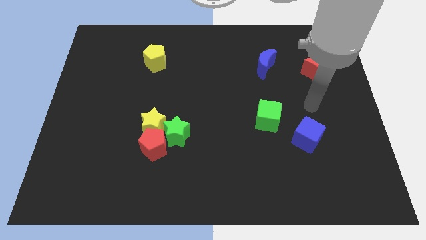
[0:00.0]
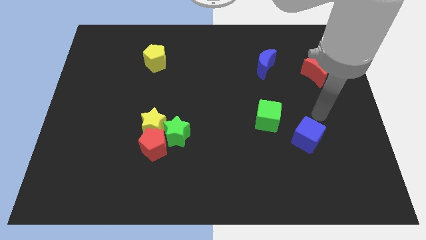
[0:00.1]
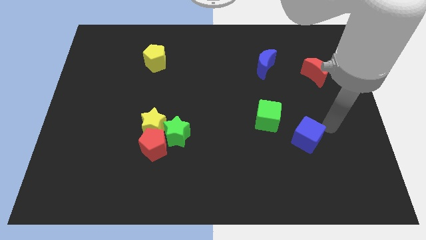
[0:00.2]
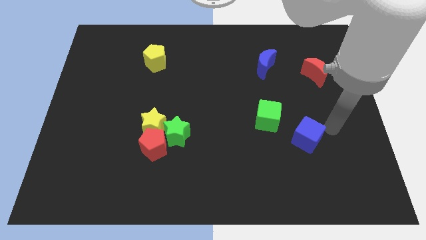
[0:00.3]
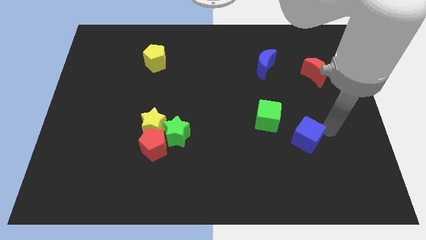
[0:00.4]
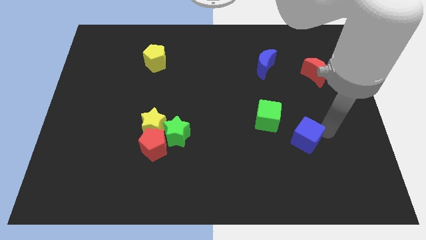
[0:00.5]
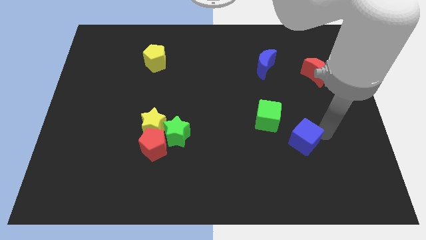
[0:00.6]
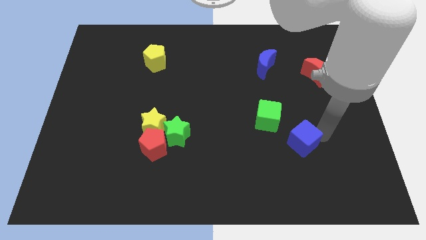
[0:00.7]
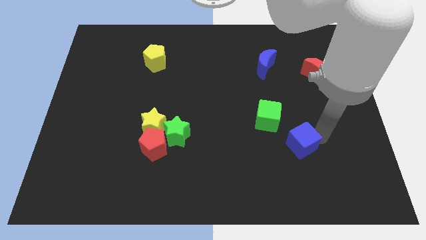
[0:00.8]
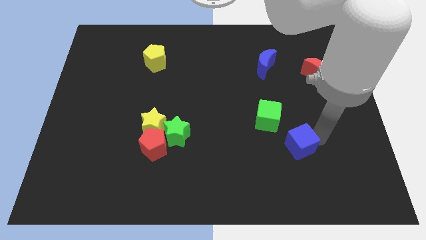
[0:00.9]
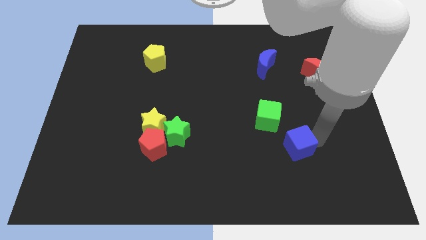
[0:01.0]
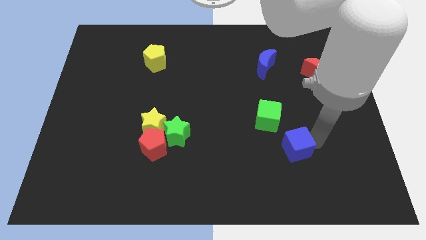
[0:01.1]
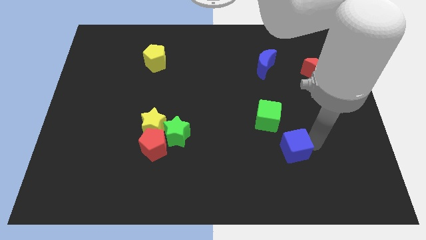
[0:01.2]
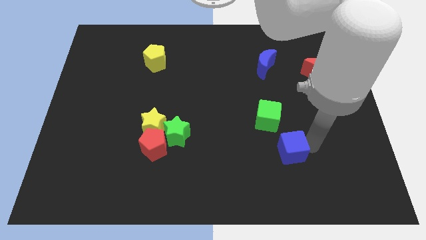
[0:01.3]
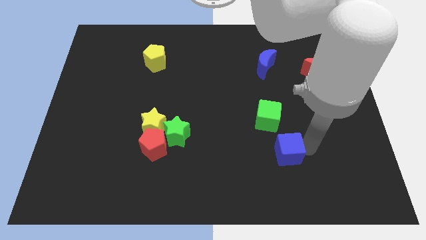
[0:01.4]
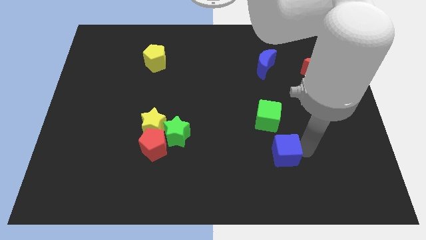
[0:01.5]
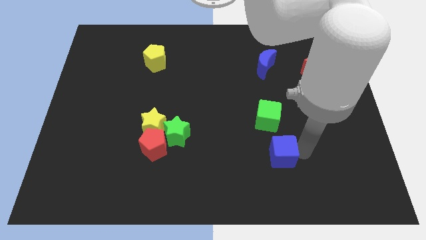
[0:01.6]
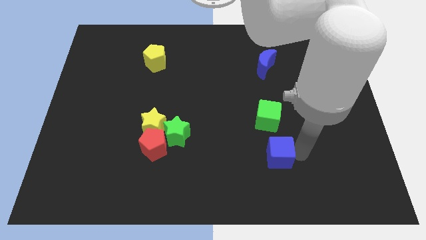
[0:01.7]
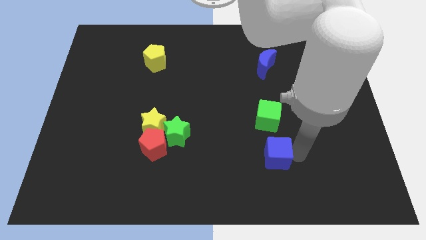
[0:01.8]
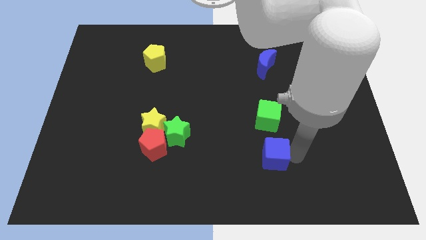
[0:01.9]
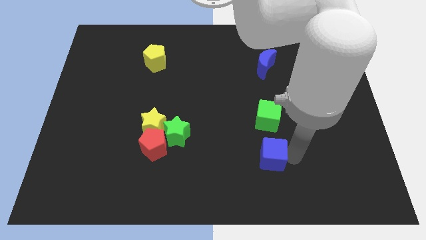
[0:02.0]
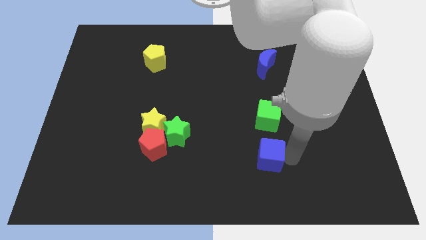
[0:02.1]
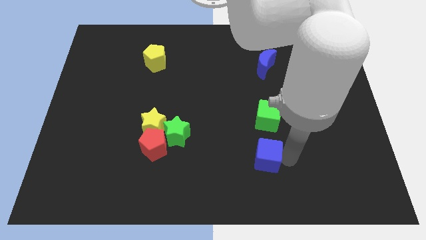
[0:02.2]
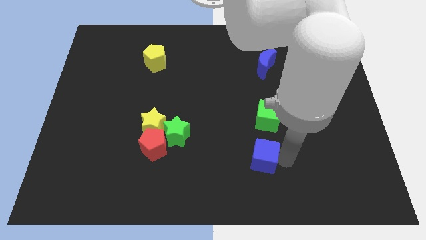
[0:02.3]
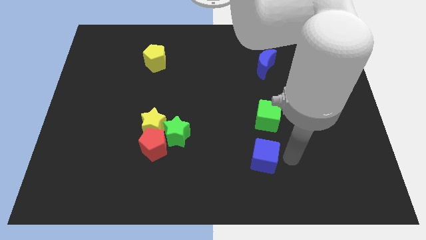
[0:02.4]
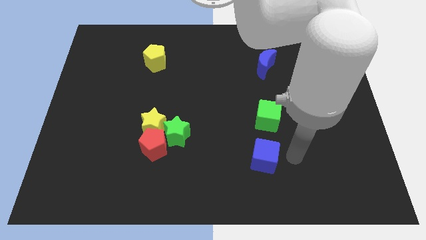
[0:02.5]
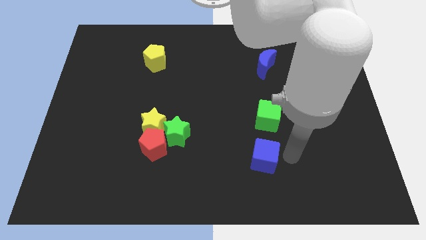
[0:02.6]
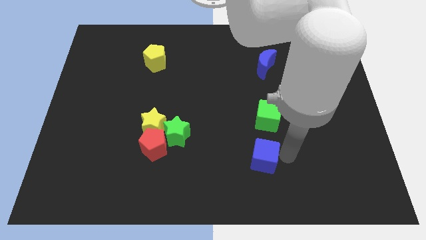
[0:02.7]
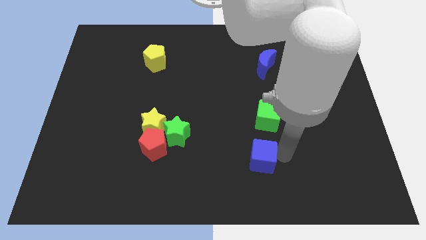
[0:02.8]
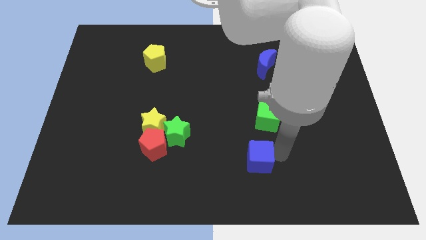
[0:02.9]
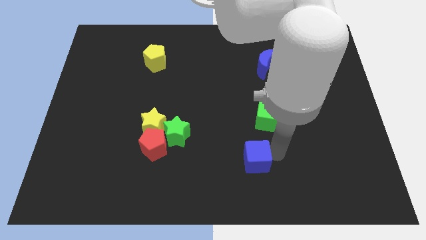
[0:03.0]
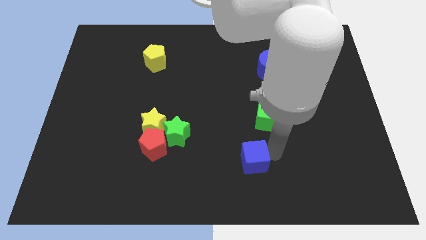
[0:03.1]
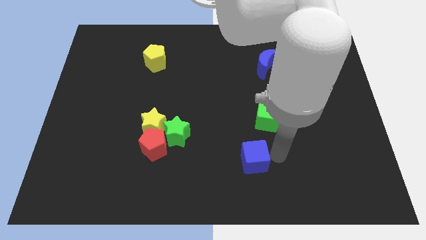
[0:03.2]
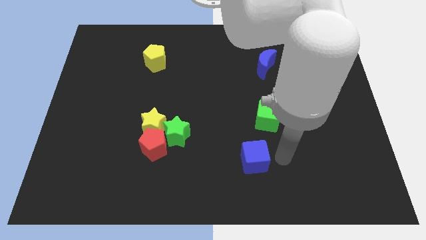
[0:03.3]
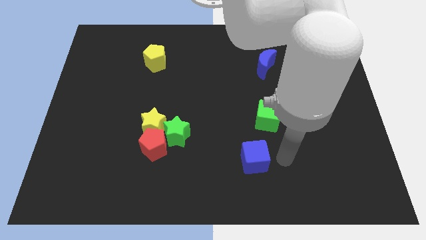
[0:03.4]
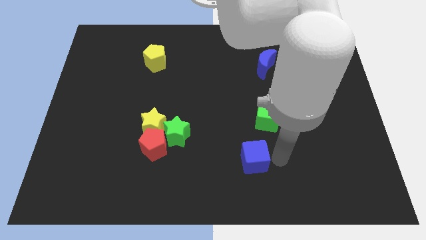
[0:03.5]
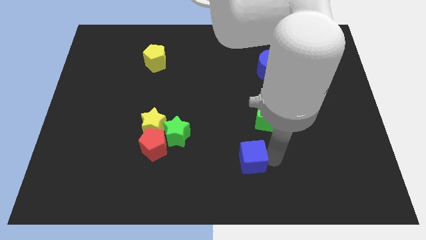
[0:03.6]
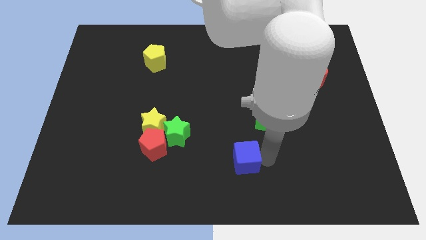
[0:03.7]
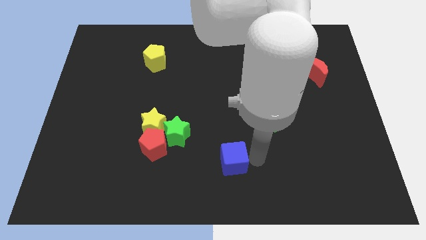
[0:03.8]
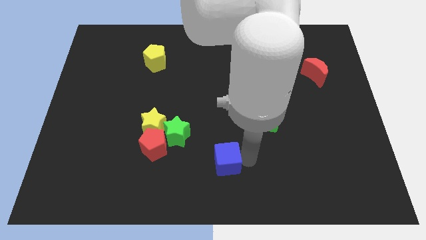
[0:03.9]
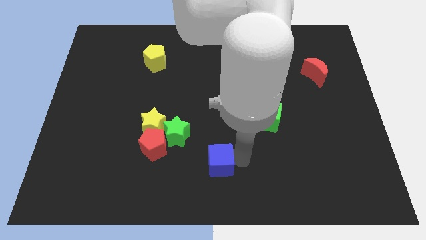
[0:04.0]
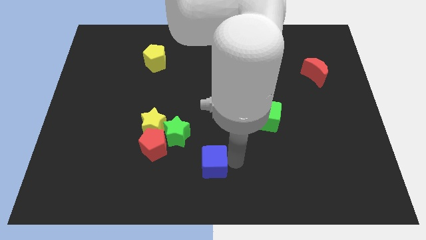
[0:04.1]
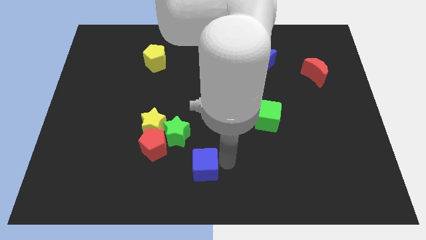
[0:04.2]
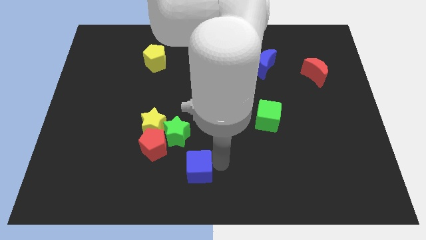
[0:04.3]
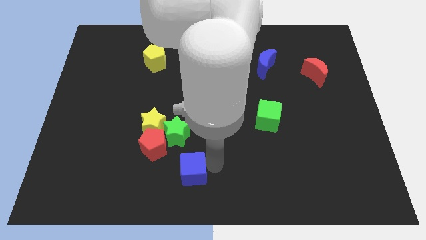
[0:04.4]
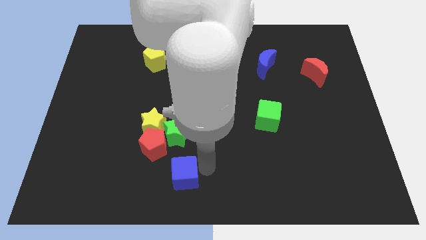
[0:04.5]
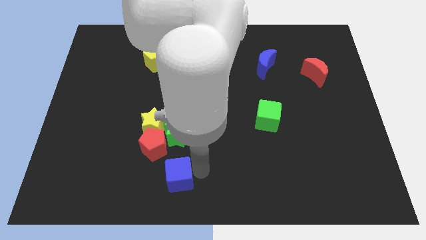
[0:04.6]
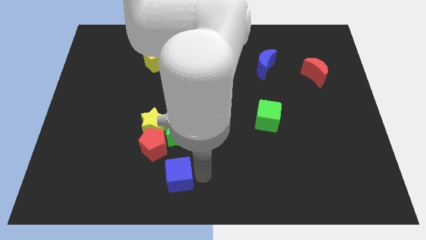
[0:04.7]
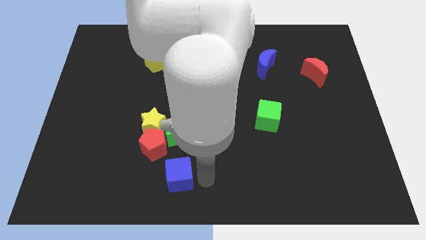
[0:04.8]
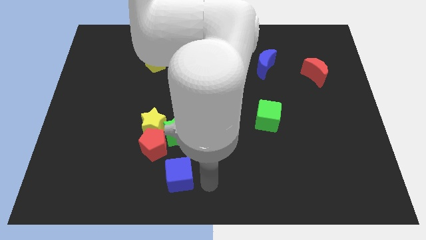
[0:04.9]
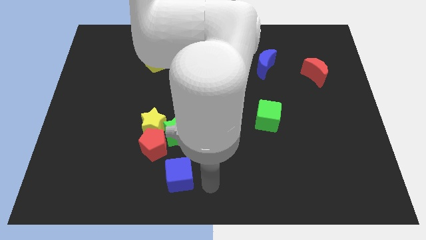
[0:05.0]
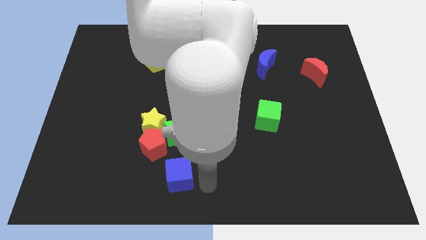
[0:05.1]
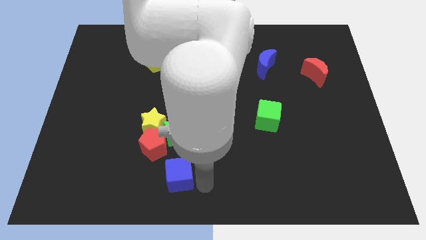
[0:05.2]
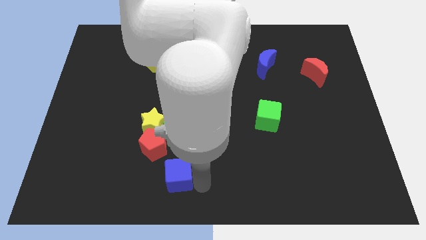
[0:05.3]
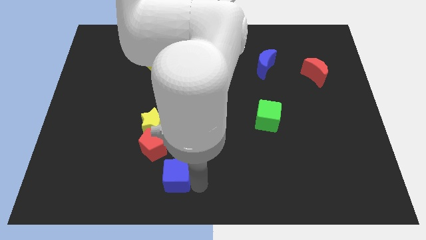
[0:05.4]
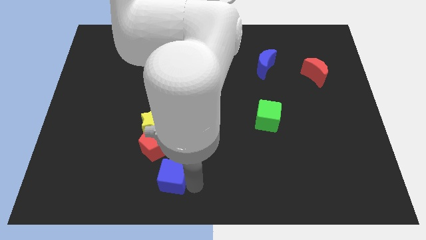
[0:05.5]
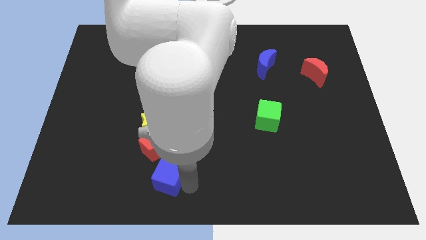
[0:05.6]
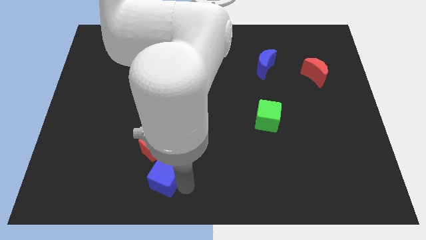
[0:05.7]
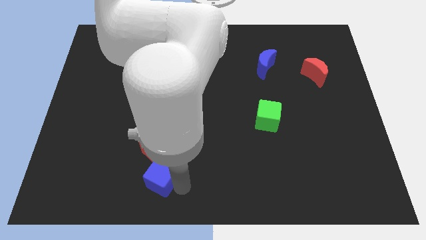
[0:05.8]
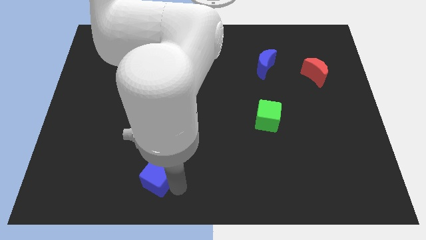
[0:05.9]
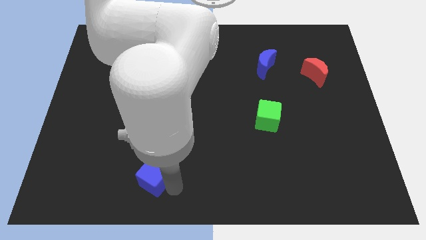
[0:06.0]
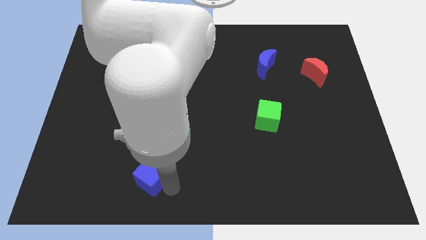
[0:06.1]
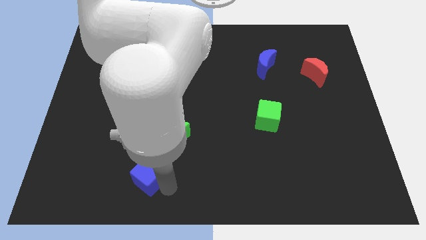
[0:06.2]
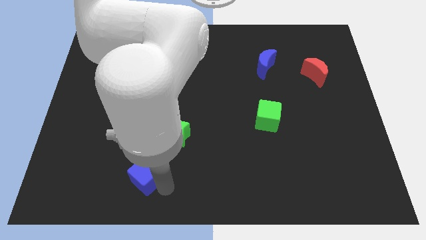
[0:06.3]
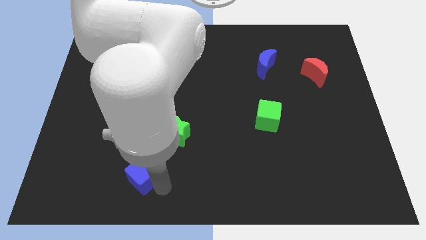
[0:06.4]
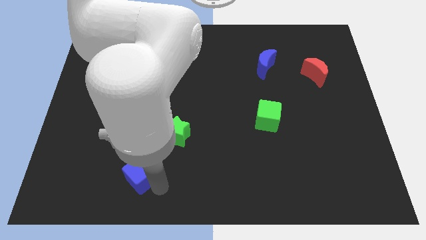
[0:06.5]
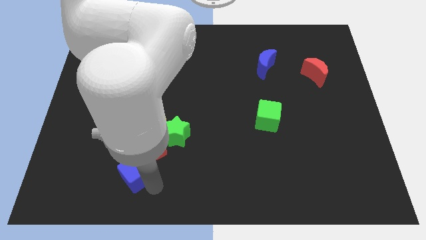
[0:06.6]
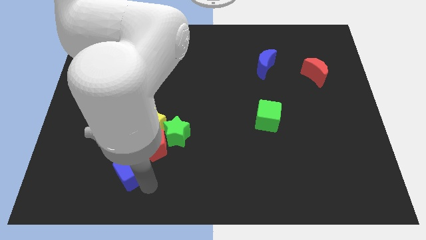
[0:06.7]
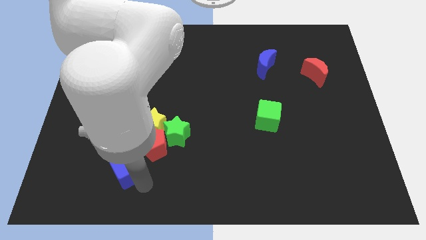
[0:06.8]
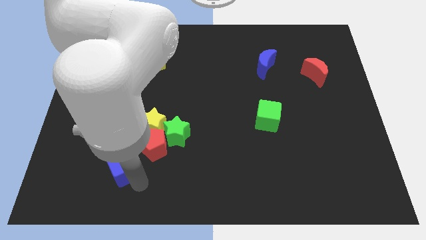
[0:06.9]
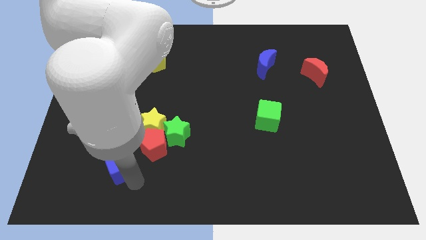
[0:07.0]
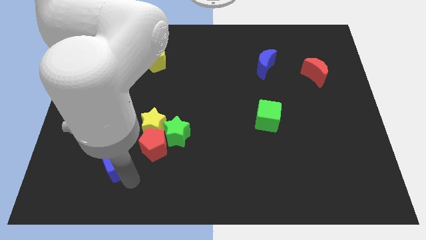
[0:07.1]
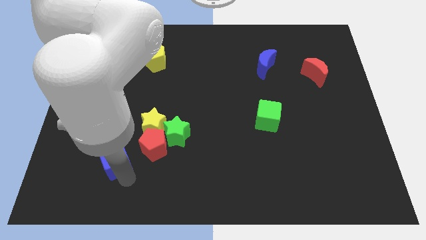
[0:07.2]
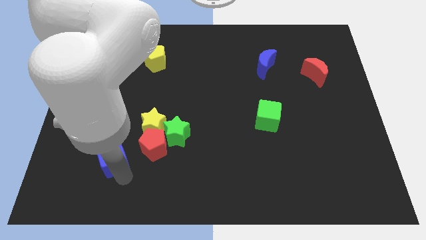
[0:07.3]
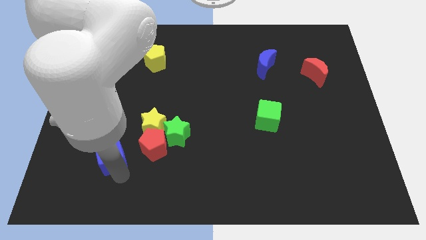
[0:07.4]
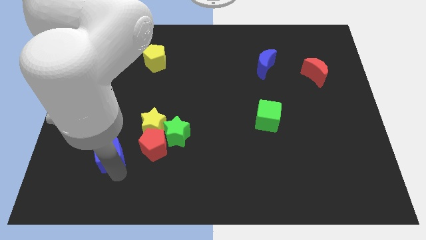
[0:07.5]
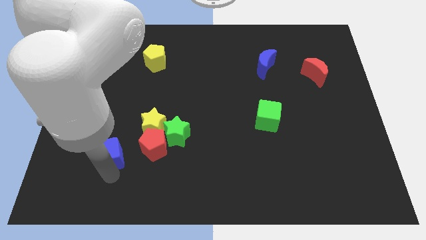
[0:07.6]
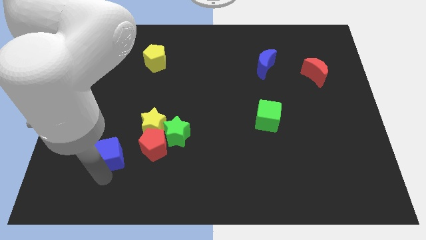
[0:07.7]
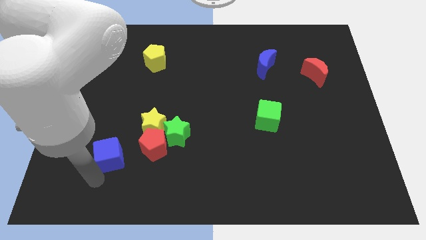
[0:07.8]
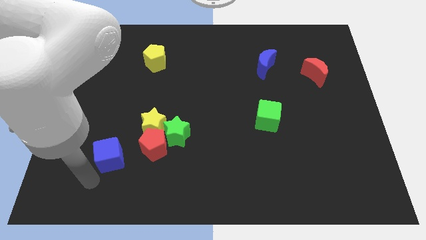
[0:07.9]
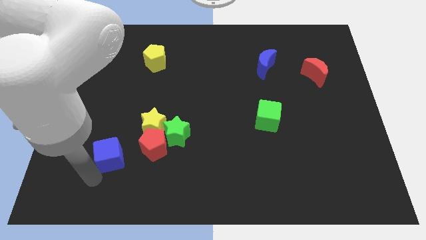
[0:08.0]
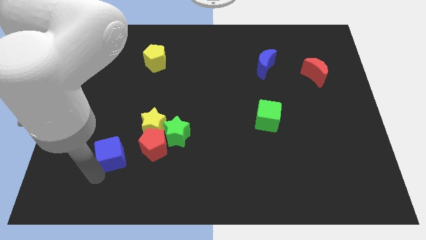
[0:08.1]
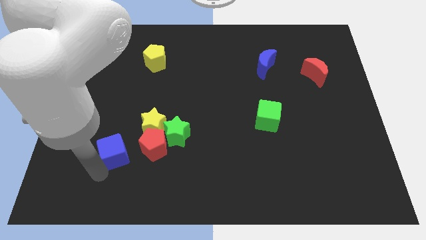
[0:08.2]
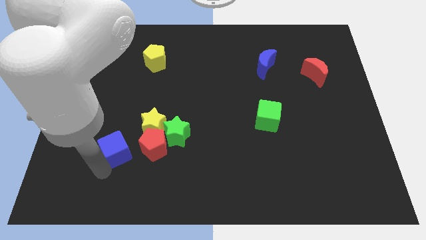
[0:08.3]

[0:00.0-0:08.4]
slide the blue cube to the left side of the green star
